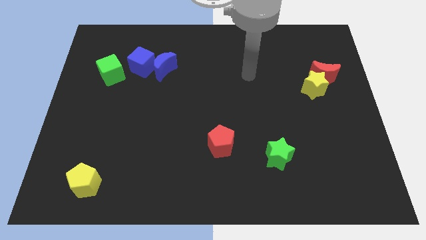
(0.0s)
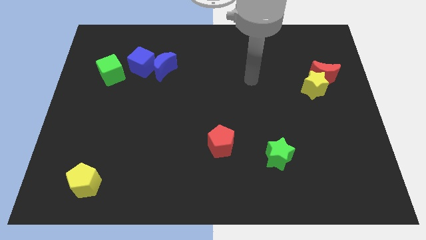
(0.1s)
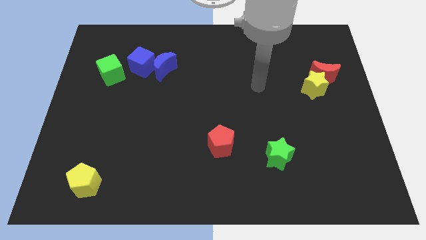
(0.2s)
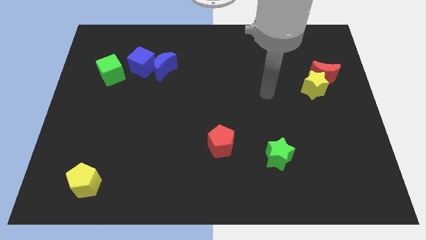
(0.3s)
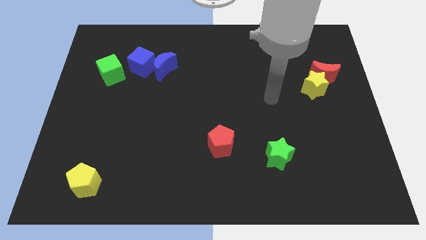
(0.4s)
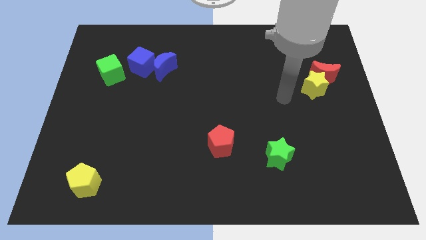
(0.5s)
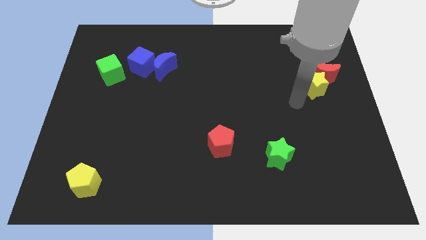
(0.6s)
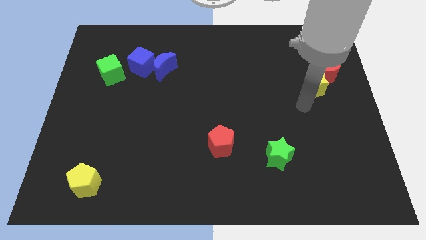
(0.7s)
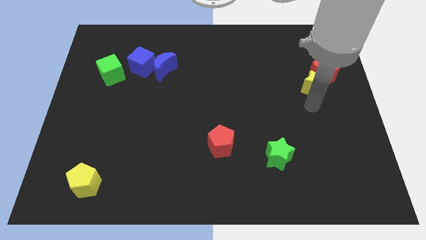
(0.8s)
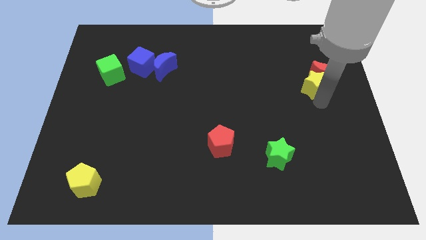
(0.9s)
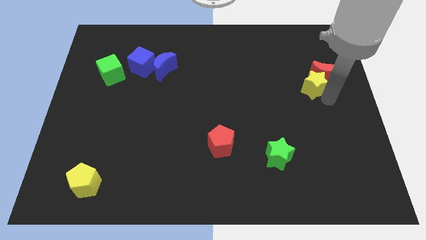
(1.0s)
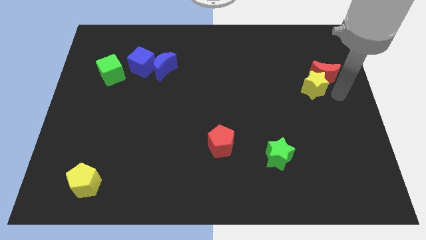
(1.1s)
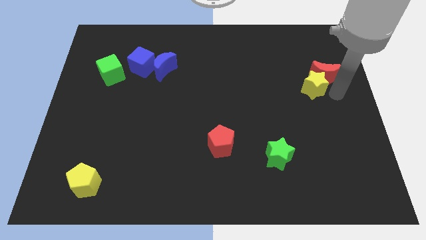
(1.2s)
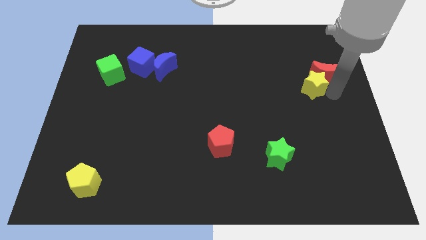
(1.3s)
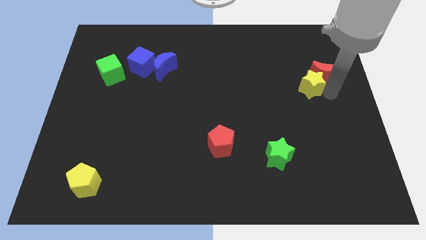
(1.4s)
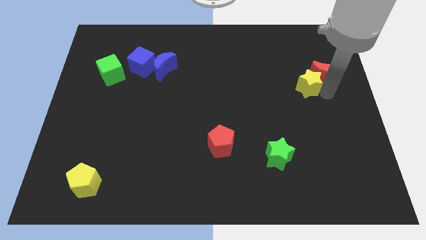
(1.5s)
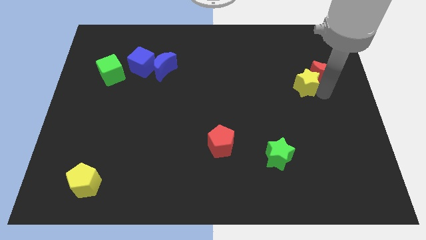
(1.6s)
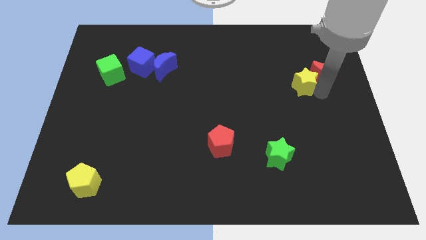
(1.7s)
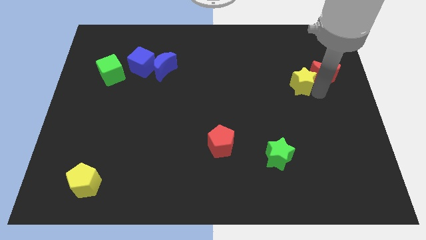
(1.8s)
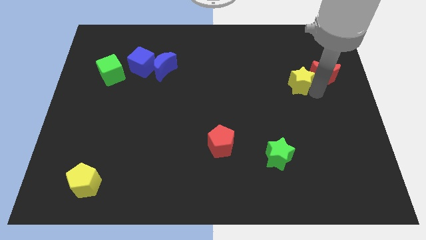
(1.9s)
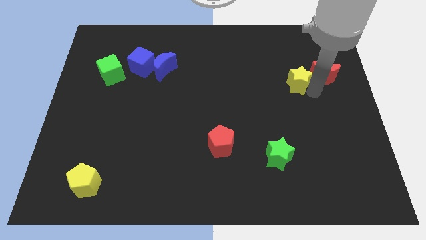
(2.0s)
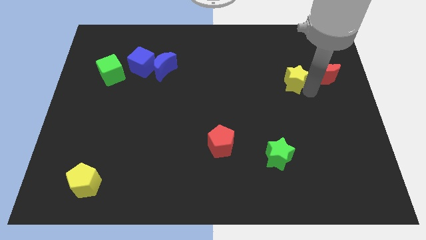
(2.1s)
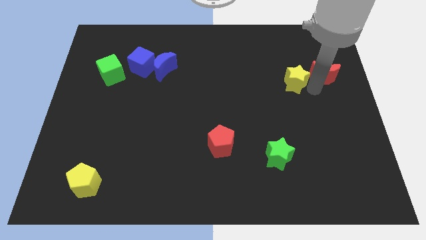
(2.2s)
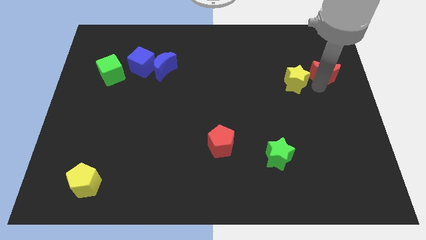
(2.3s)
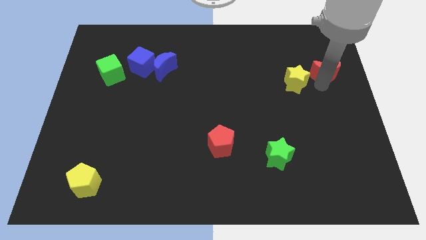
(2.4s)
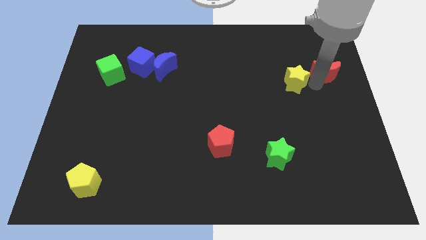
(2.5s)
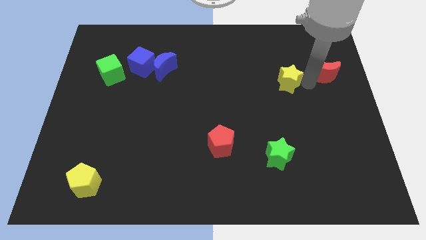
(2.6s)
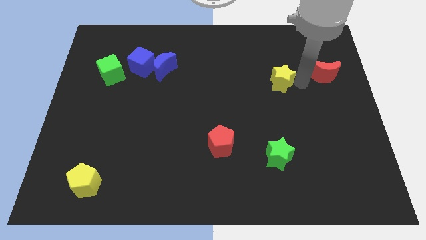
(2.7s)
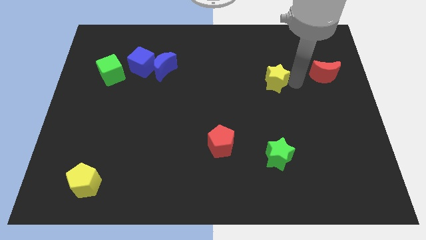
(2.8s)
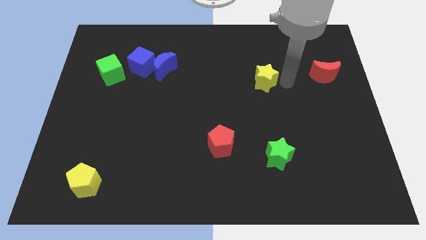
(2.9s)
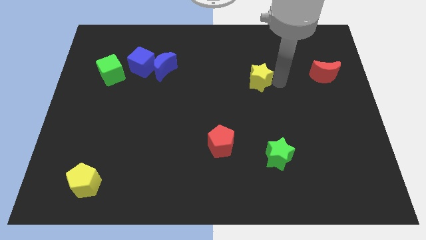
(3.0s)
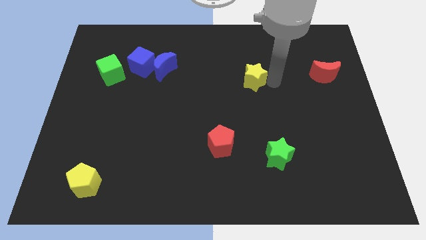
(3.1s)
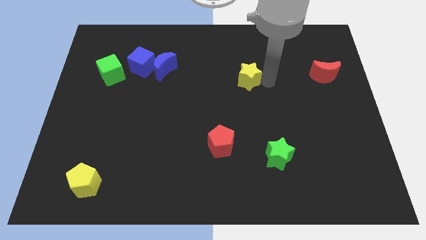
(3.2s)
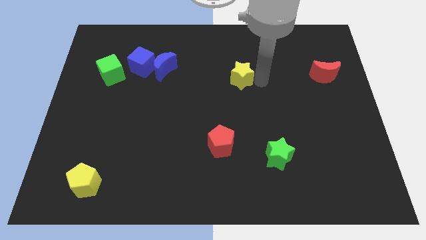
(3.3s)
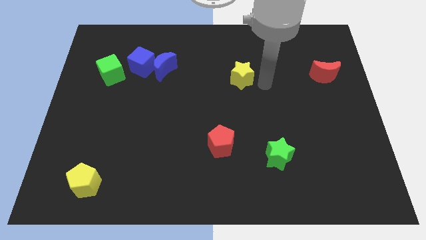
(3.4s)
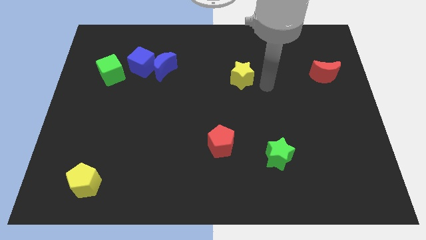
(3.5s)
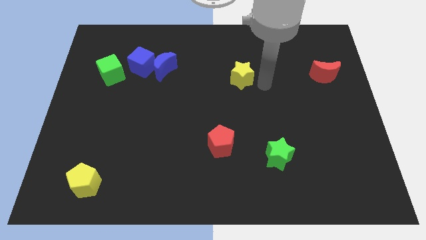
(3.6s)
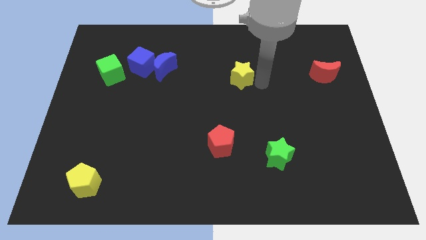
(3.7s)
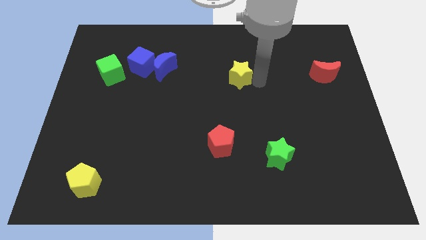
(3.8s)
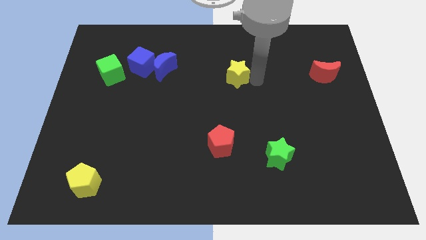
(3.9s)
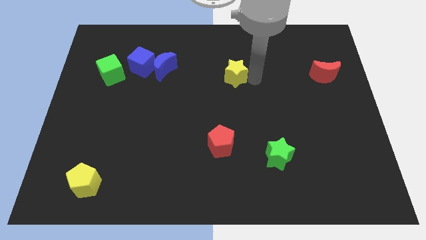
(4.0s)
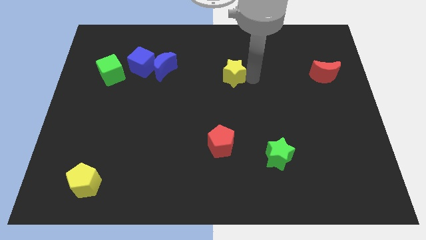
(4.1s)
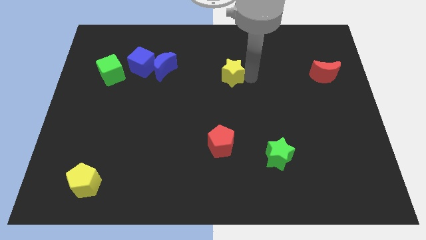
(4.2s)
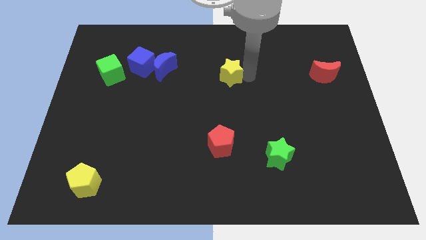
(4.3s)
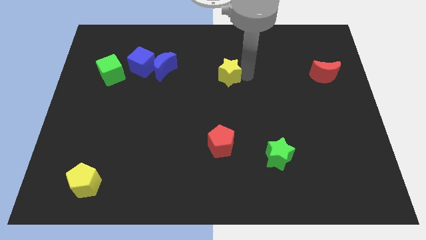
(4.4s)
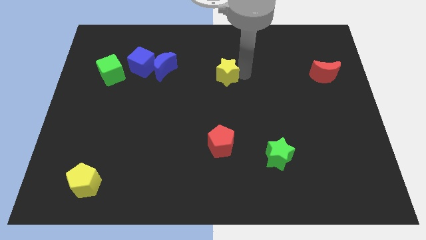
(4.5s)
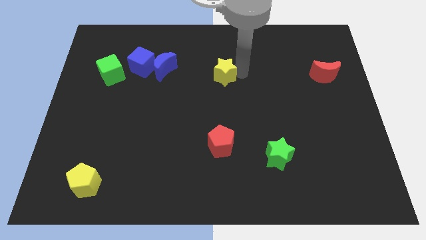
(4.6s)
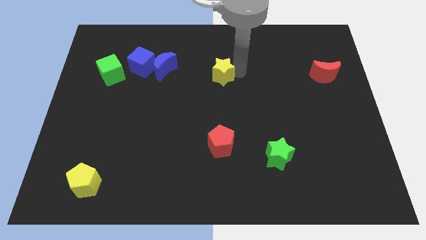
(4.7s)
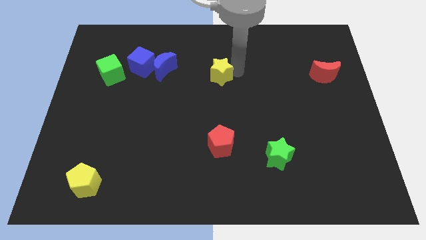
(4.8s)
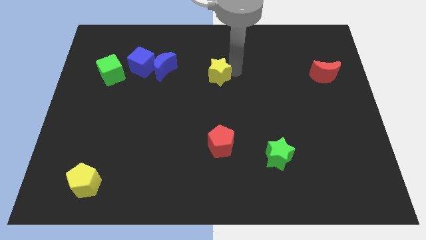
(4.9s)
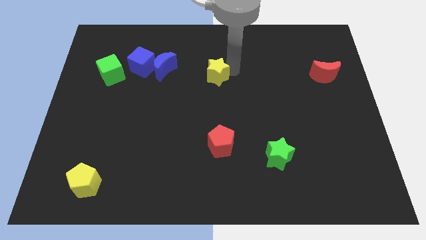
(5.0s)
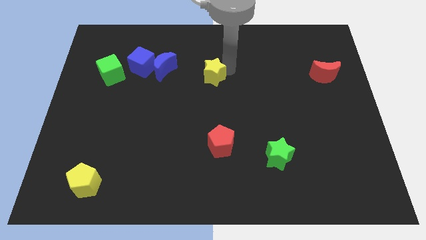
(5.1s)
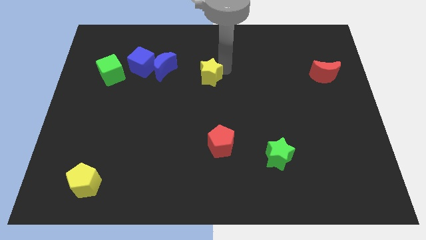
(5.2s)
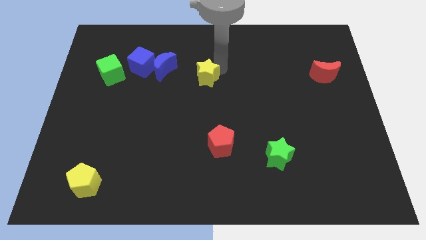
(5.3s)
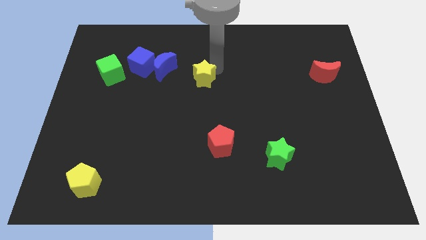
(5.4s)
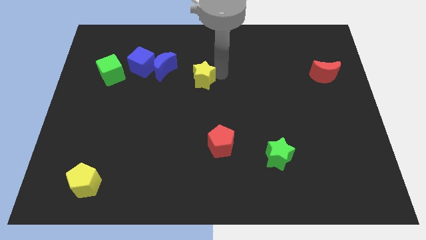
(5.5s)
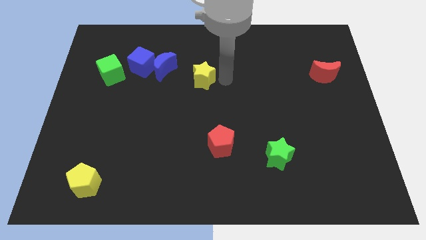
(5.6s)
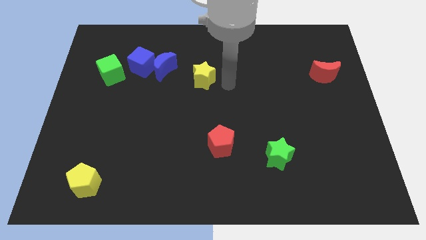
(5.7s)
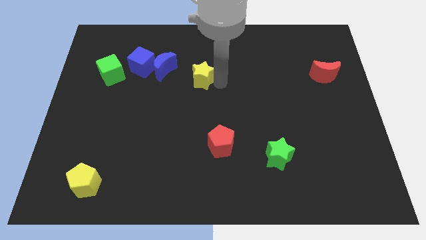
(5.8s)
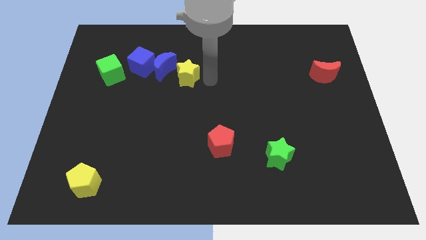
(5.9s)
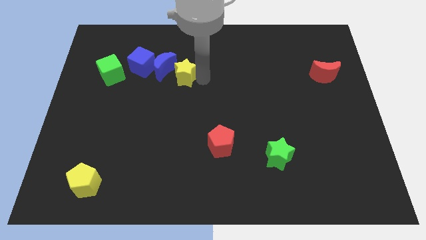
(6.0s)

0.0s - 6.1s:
slide the yellow star next to the blue moon

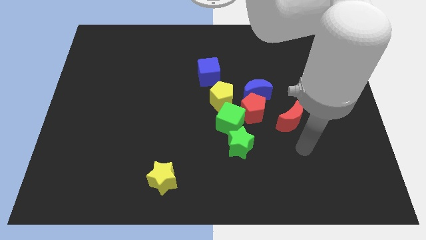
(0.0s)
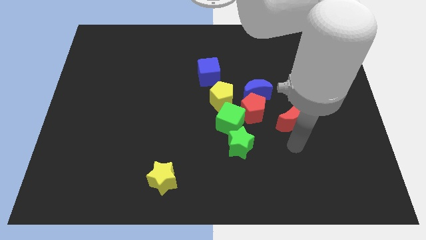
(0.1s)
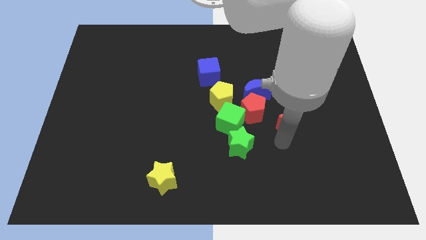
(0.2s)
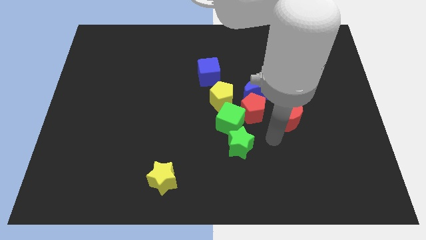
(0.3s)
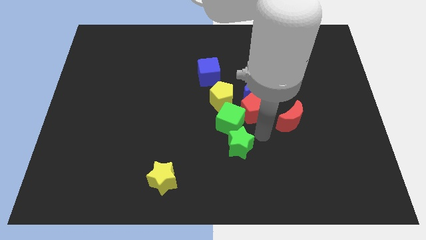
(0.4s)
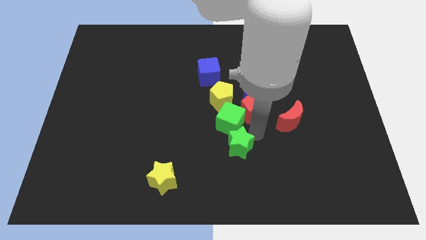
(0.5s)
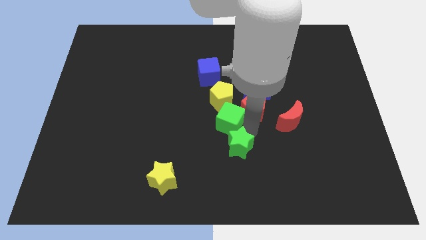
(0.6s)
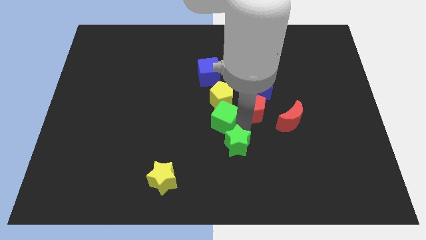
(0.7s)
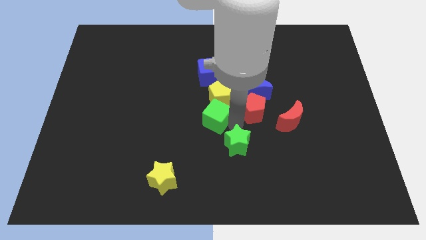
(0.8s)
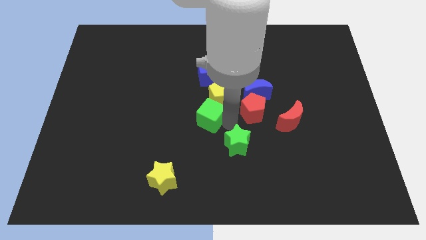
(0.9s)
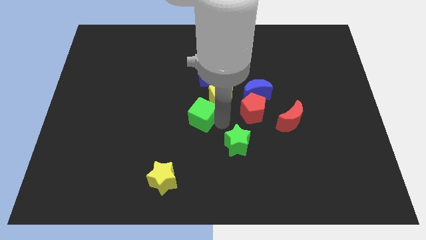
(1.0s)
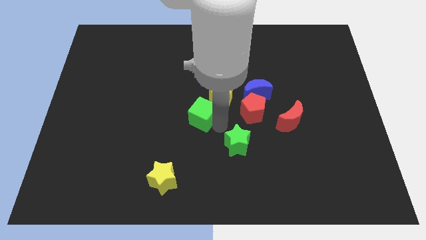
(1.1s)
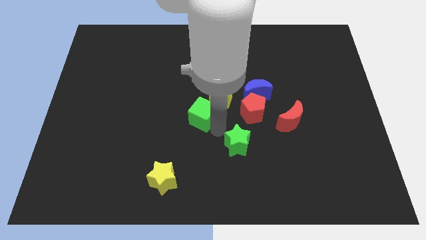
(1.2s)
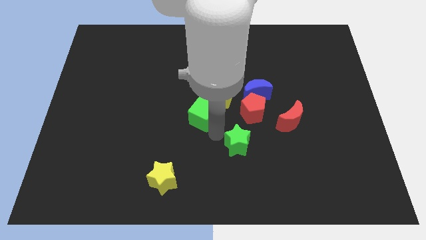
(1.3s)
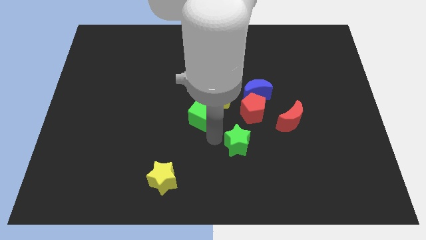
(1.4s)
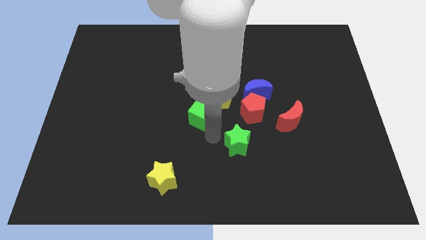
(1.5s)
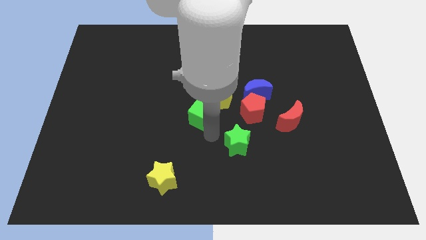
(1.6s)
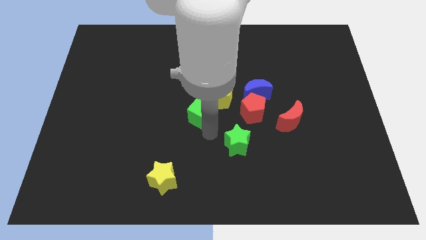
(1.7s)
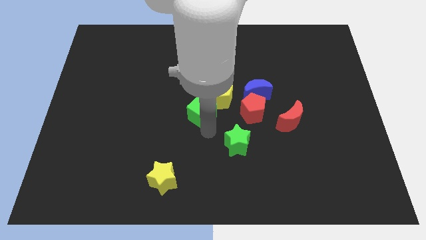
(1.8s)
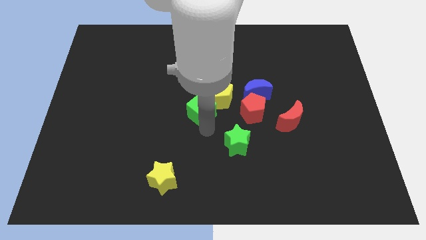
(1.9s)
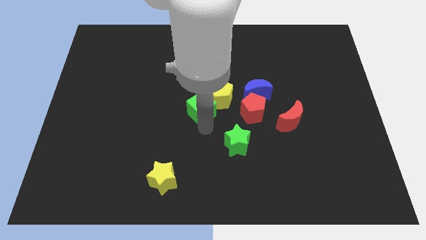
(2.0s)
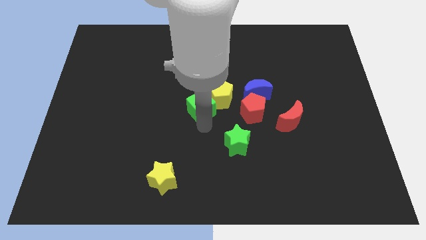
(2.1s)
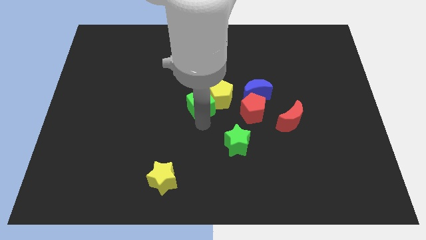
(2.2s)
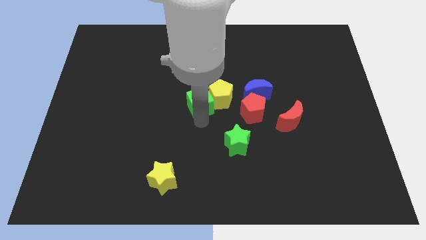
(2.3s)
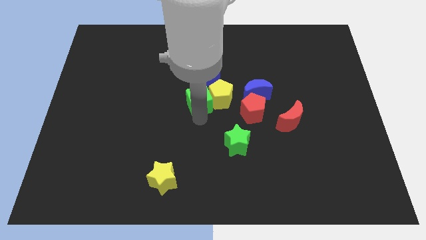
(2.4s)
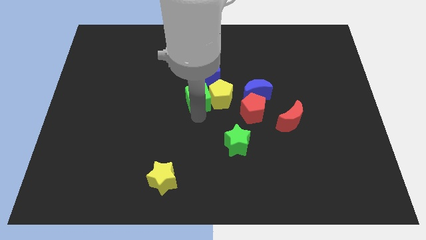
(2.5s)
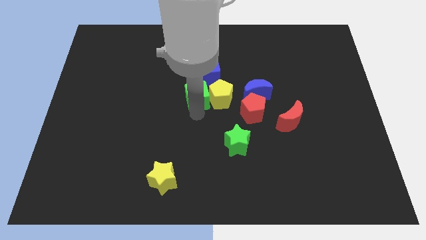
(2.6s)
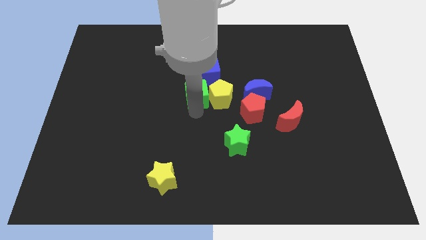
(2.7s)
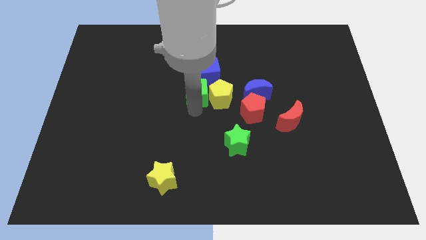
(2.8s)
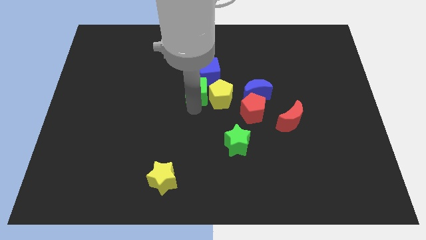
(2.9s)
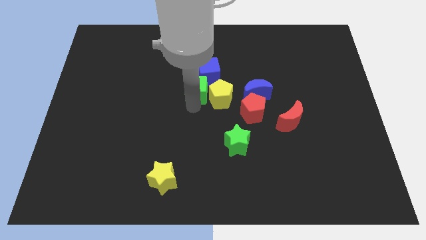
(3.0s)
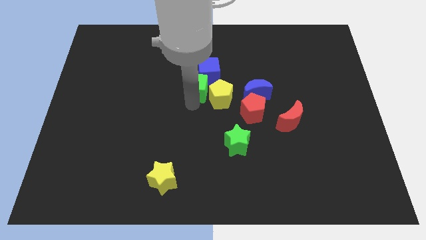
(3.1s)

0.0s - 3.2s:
slide the green cube close to the blue cube
